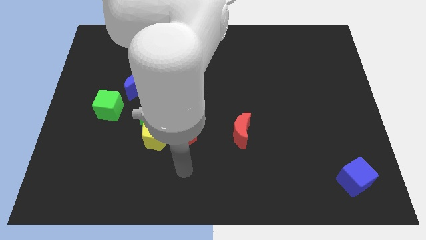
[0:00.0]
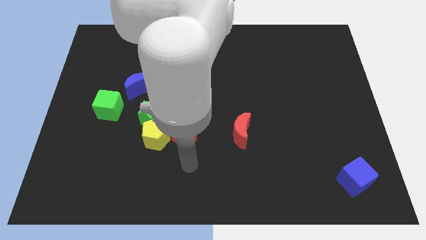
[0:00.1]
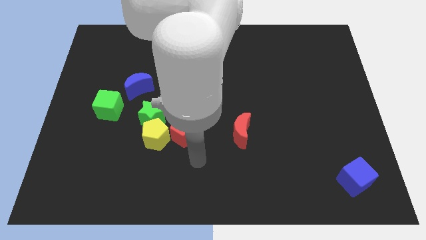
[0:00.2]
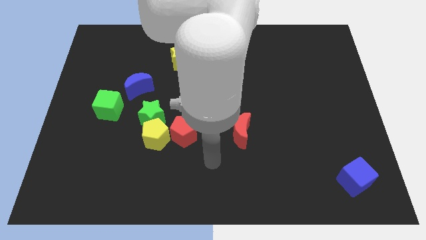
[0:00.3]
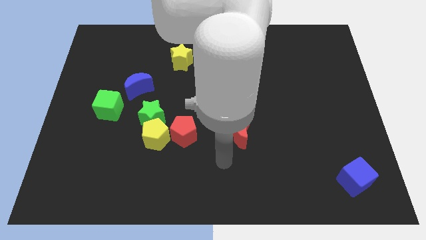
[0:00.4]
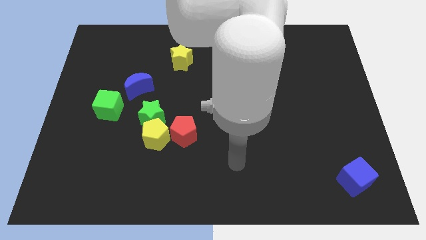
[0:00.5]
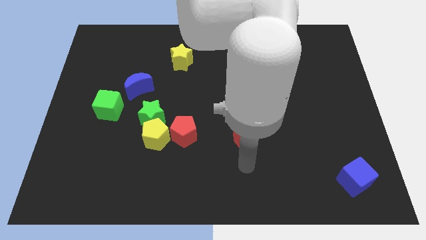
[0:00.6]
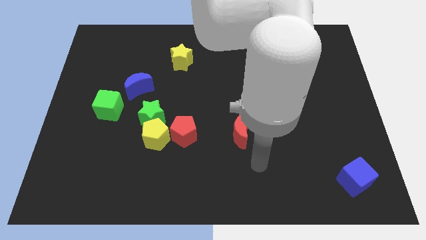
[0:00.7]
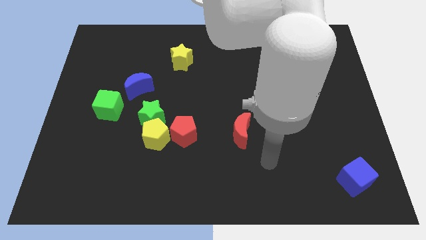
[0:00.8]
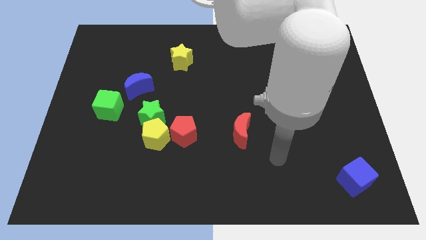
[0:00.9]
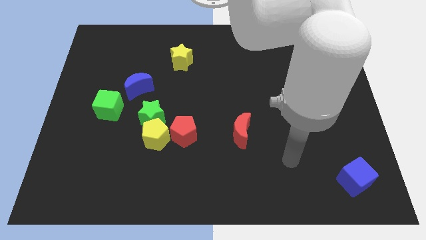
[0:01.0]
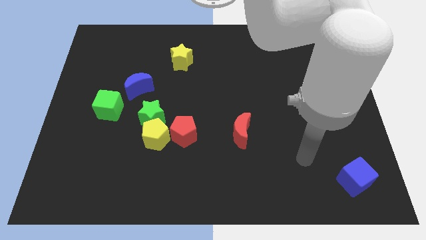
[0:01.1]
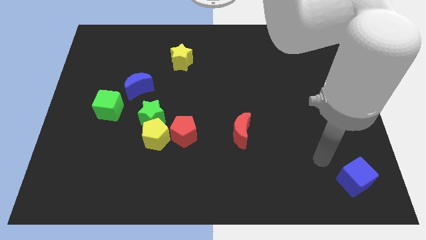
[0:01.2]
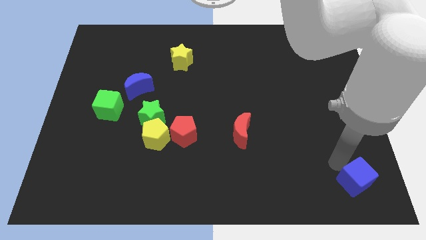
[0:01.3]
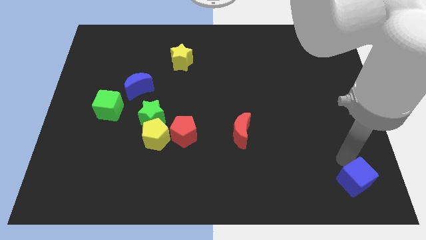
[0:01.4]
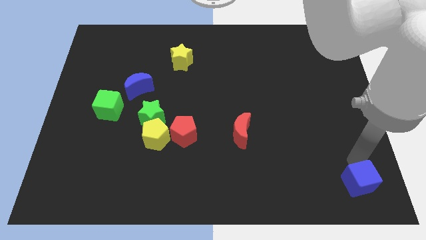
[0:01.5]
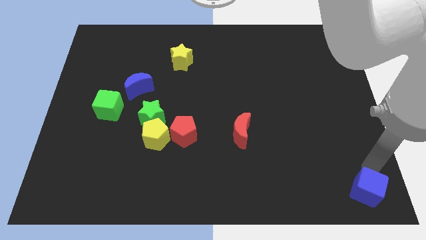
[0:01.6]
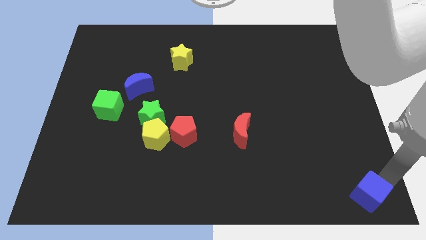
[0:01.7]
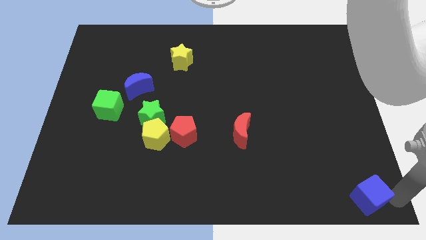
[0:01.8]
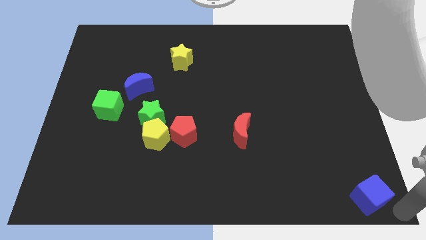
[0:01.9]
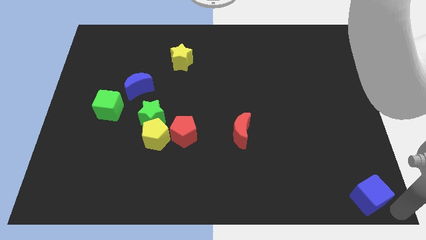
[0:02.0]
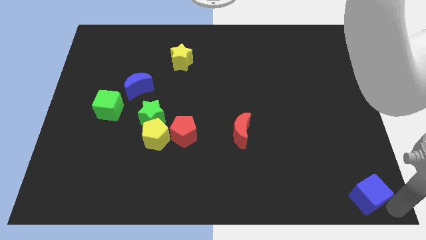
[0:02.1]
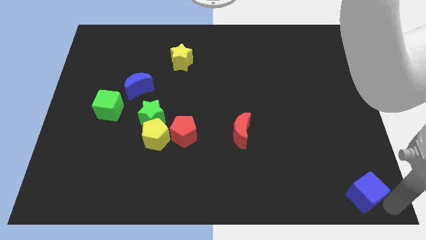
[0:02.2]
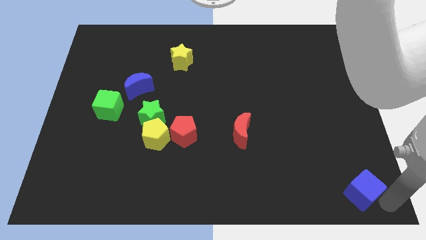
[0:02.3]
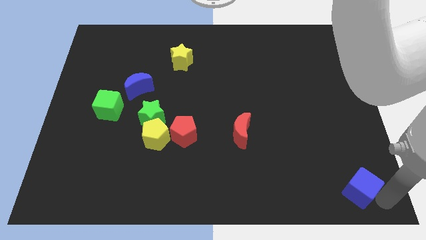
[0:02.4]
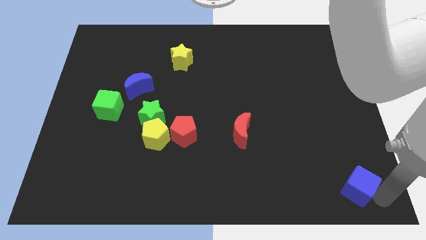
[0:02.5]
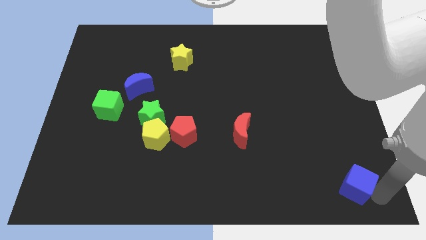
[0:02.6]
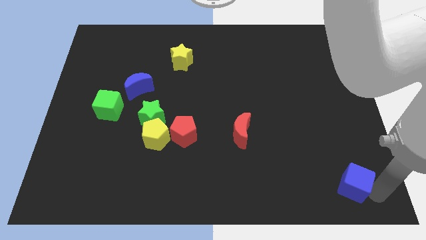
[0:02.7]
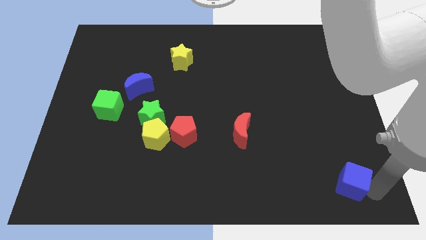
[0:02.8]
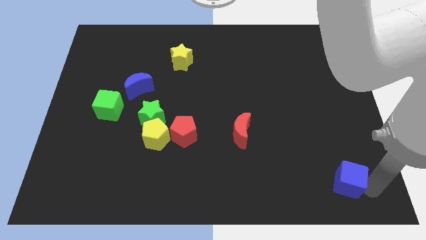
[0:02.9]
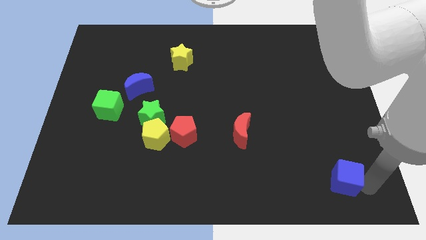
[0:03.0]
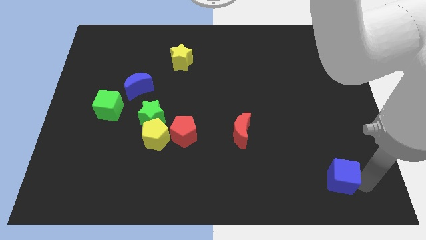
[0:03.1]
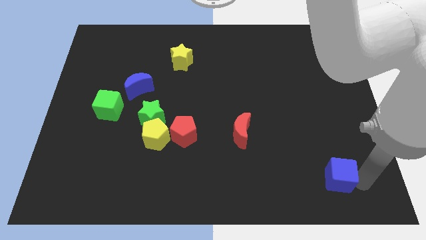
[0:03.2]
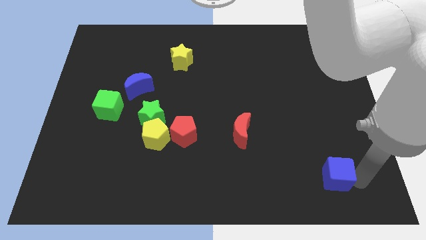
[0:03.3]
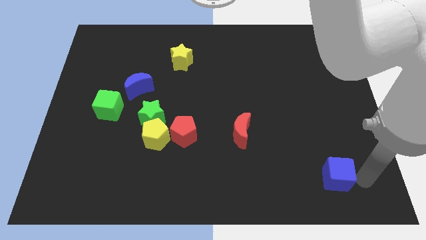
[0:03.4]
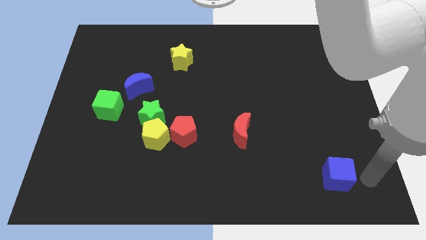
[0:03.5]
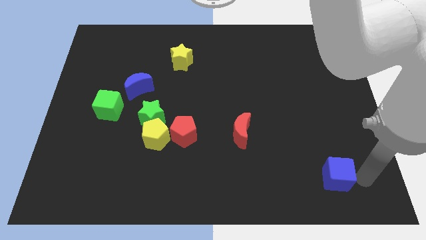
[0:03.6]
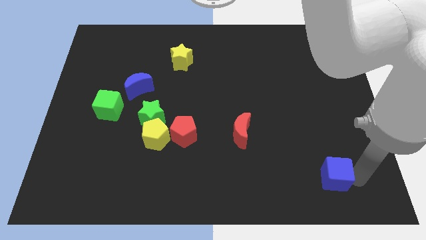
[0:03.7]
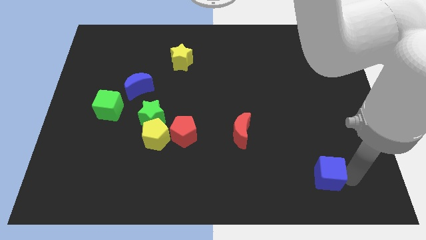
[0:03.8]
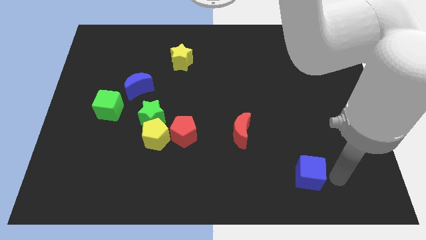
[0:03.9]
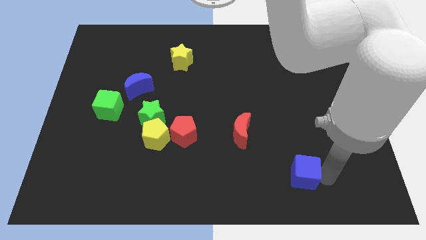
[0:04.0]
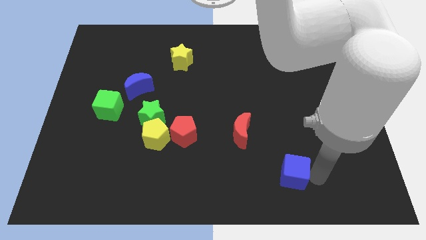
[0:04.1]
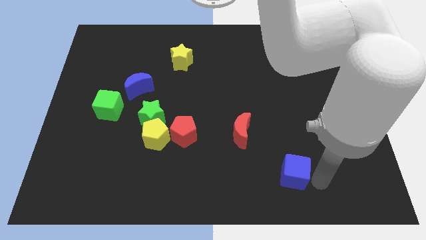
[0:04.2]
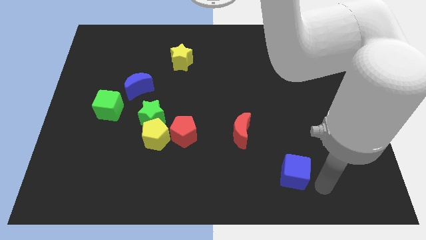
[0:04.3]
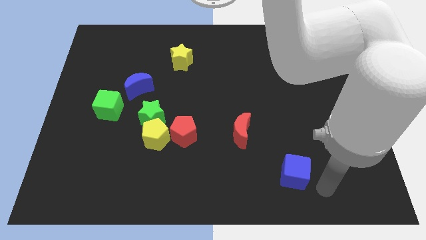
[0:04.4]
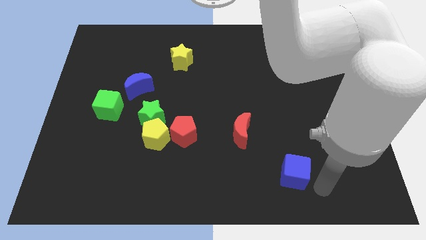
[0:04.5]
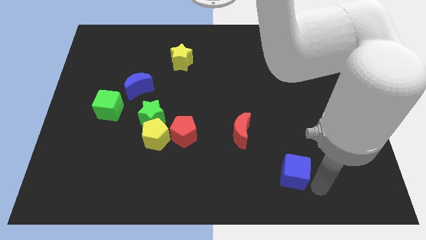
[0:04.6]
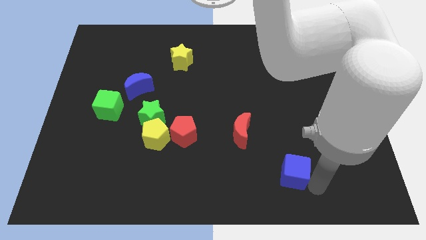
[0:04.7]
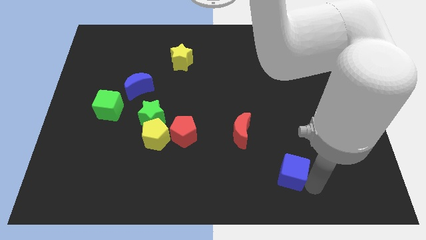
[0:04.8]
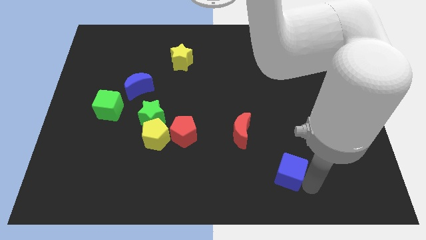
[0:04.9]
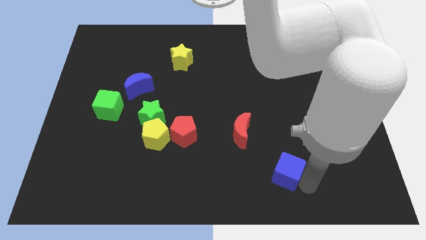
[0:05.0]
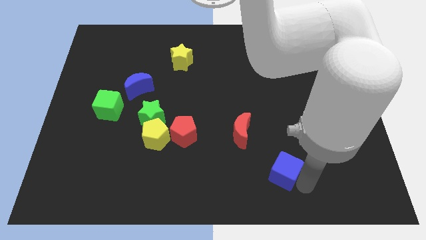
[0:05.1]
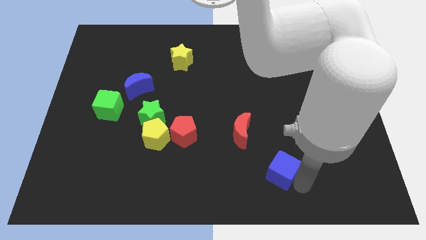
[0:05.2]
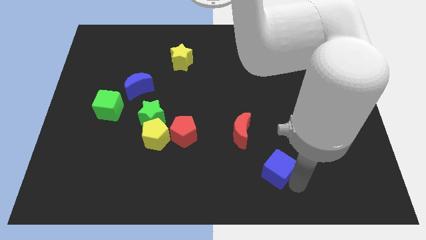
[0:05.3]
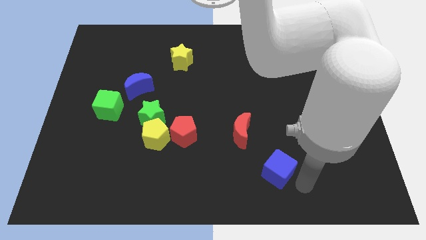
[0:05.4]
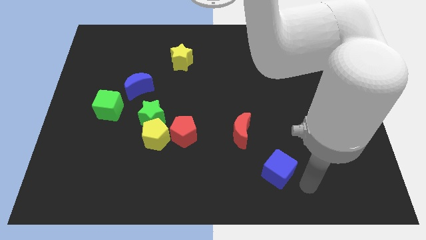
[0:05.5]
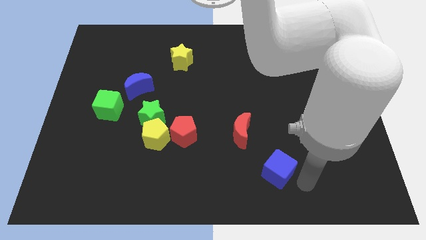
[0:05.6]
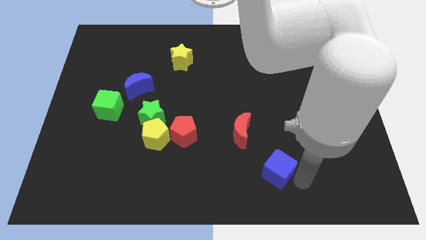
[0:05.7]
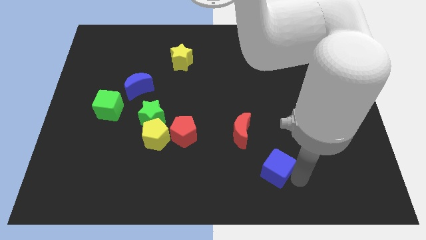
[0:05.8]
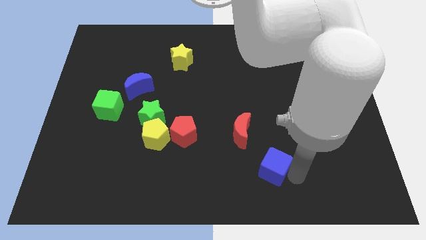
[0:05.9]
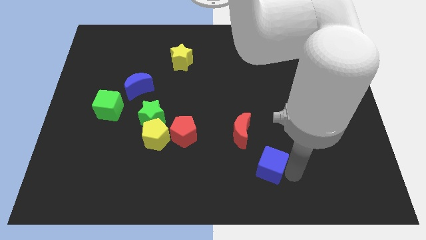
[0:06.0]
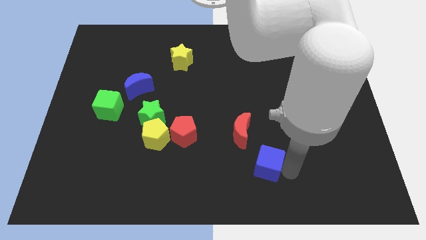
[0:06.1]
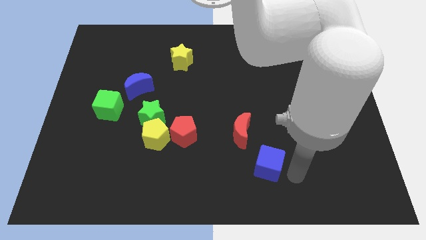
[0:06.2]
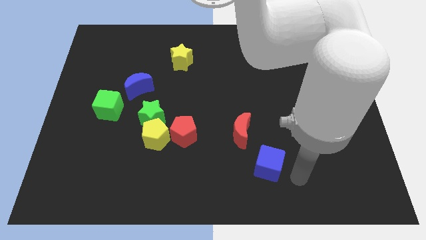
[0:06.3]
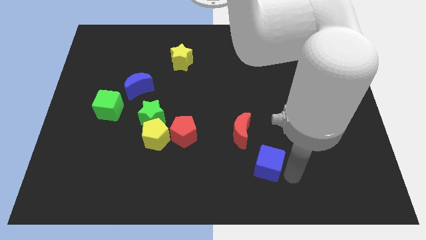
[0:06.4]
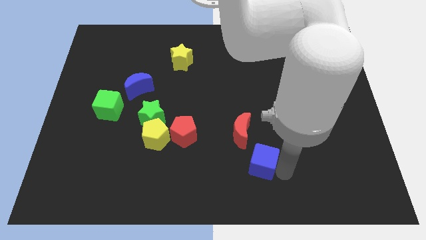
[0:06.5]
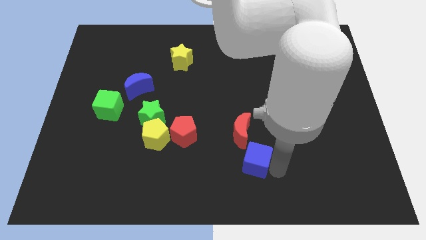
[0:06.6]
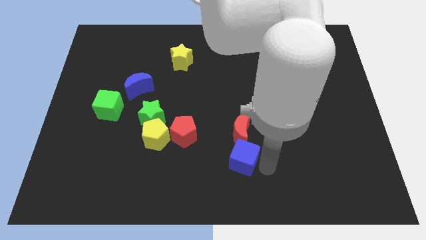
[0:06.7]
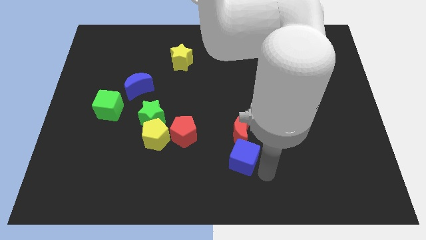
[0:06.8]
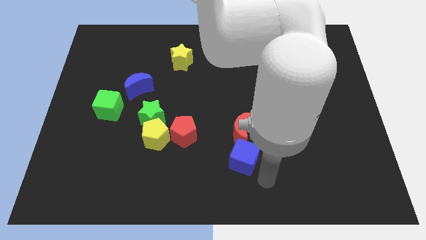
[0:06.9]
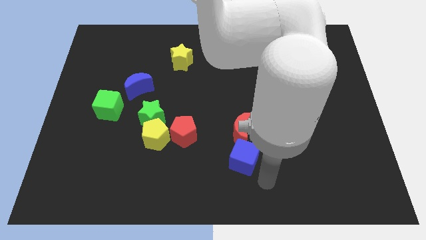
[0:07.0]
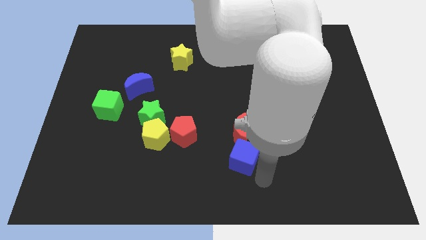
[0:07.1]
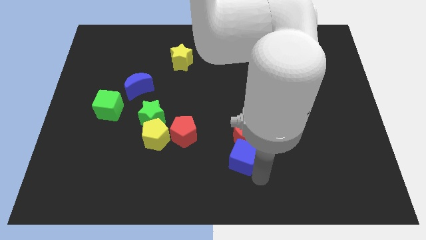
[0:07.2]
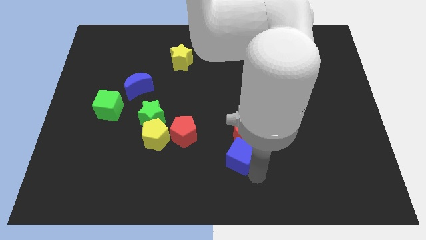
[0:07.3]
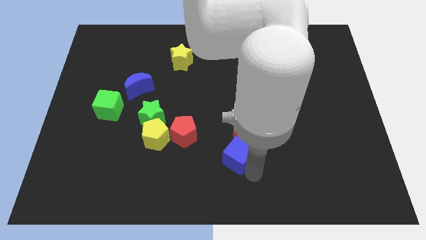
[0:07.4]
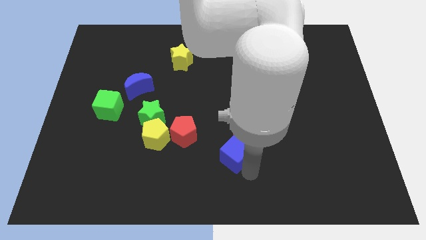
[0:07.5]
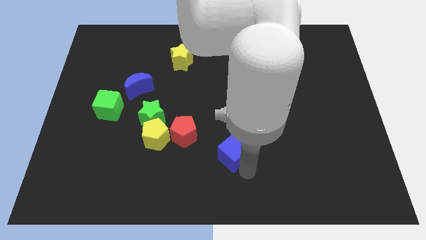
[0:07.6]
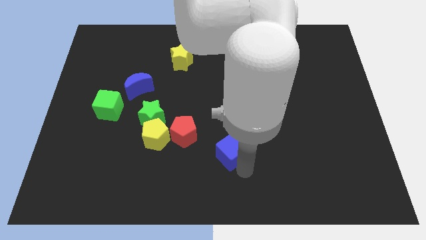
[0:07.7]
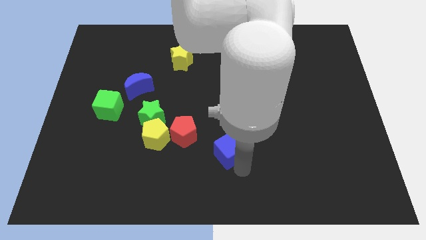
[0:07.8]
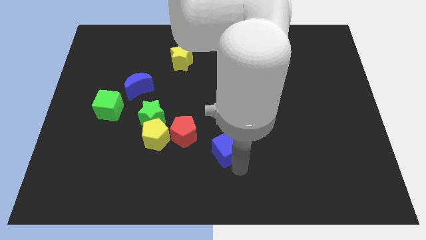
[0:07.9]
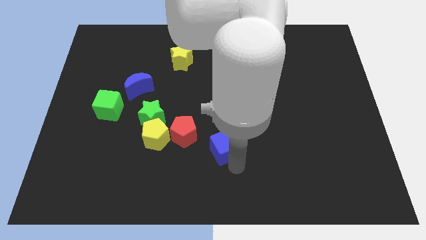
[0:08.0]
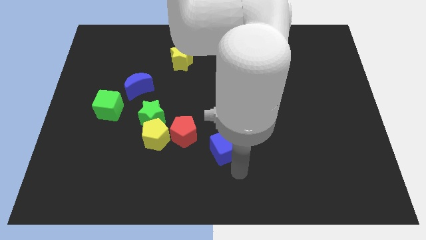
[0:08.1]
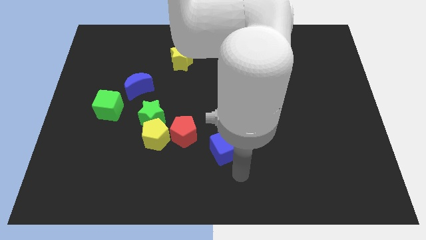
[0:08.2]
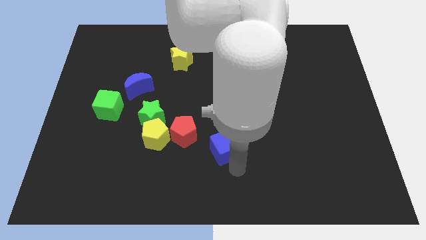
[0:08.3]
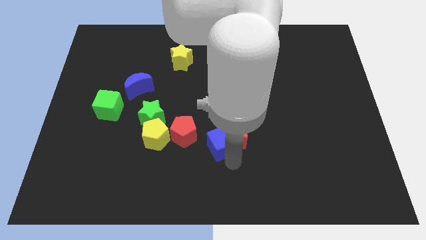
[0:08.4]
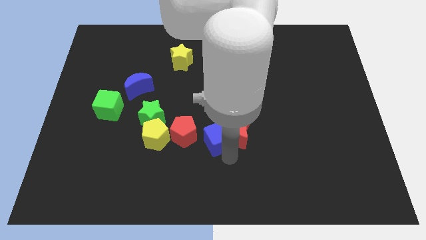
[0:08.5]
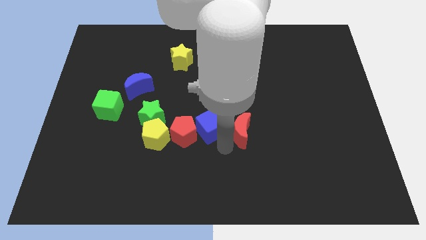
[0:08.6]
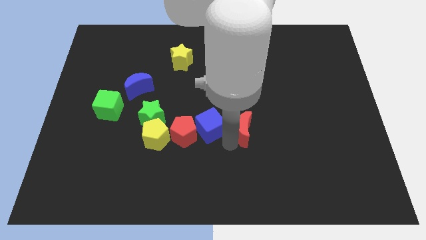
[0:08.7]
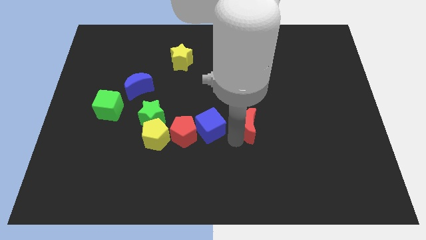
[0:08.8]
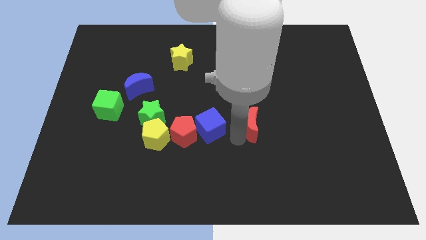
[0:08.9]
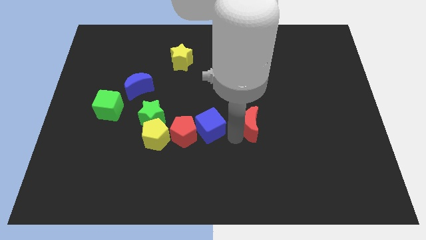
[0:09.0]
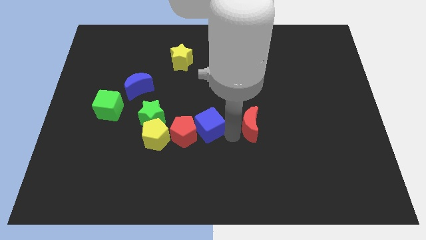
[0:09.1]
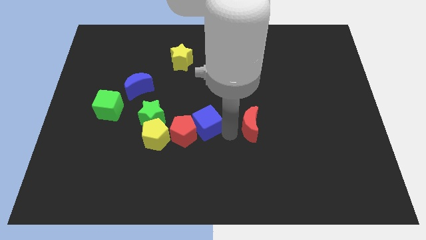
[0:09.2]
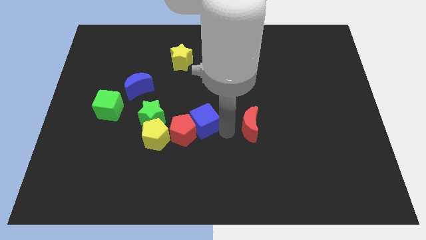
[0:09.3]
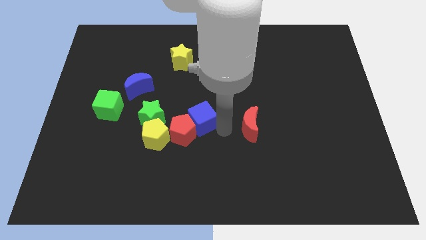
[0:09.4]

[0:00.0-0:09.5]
put the blue cube diagonally up and to the right of the yellow pentagon
